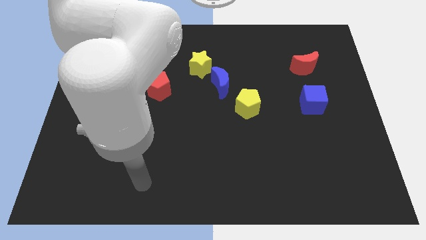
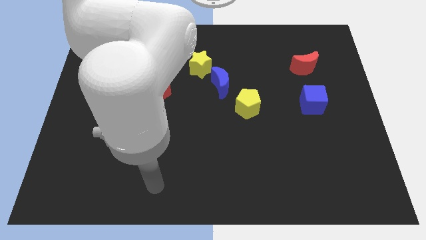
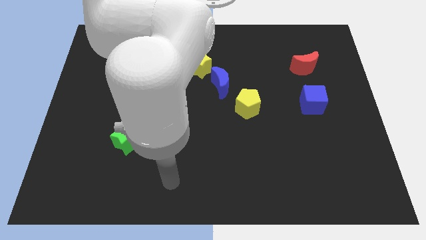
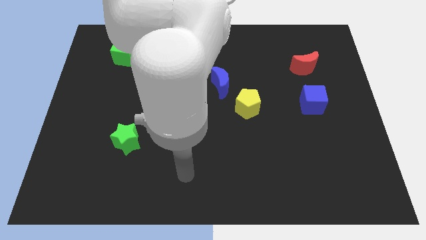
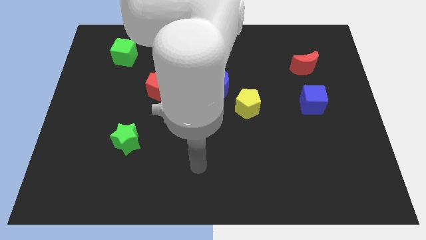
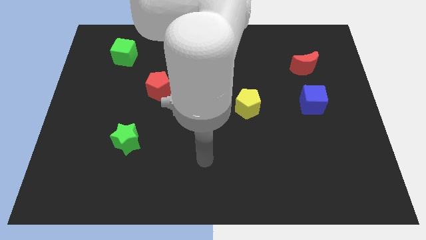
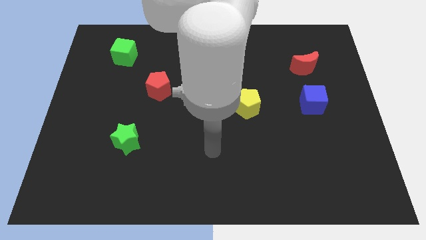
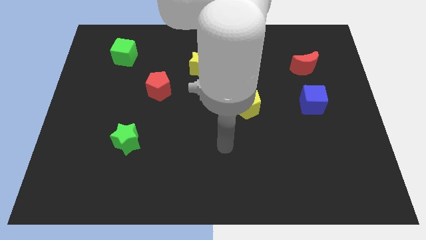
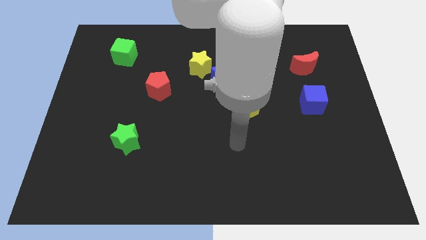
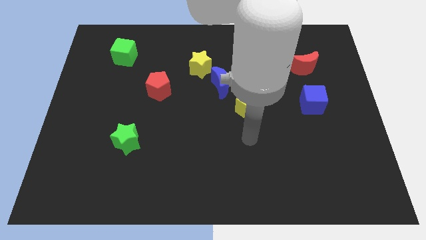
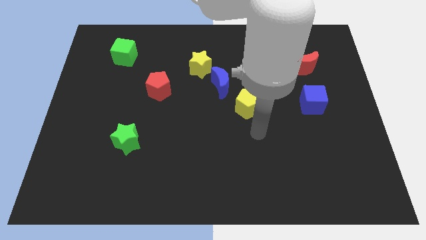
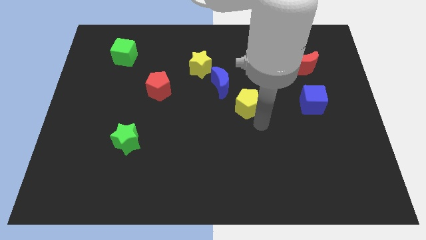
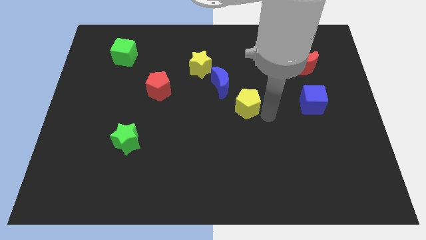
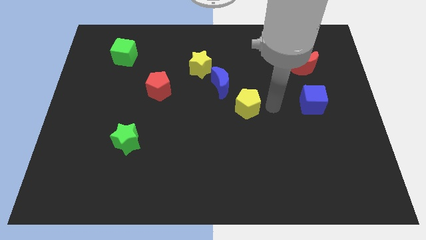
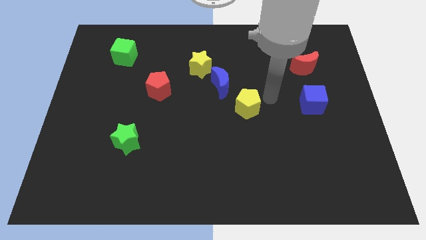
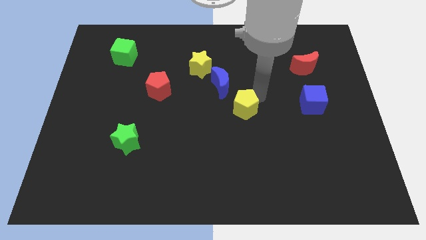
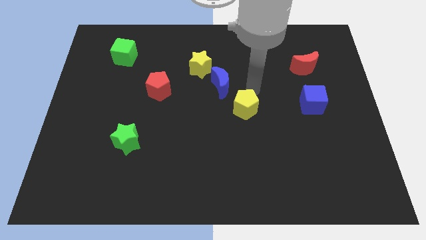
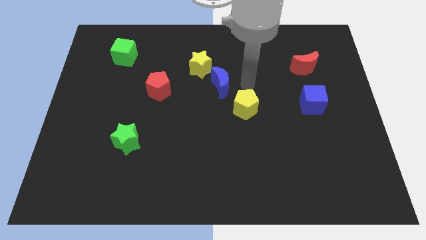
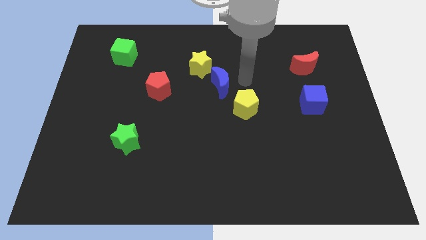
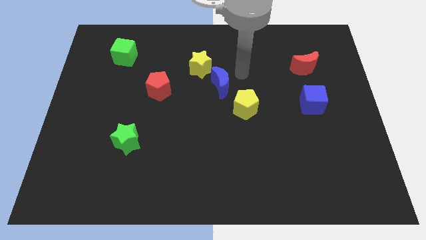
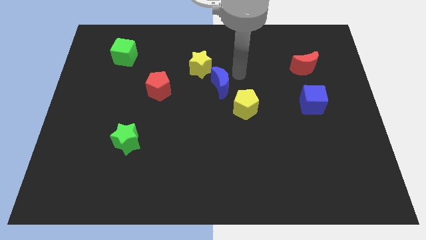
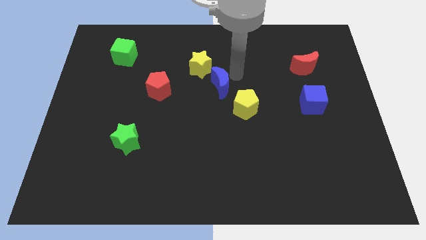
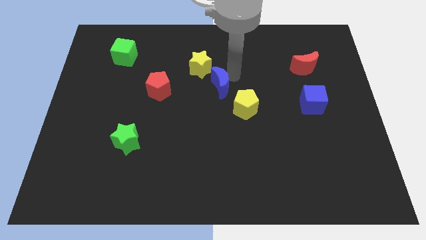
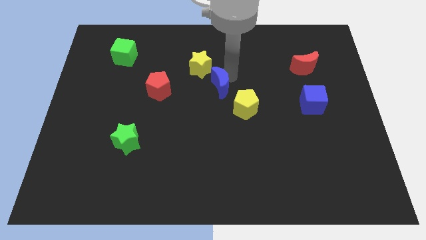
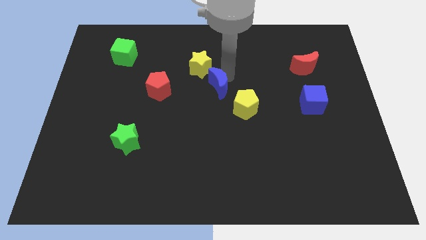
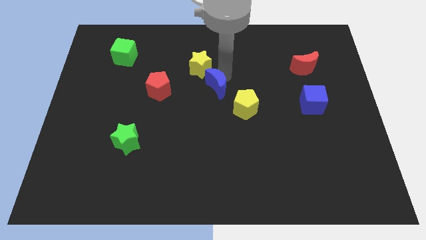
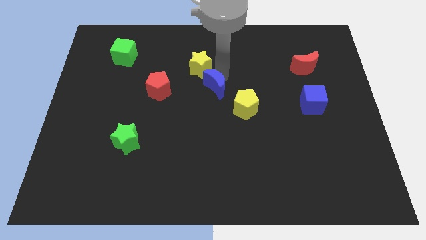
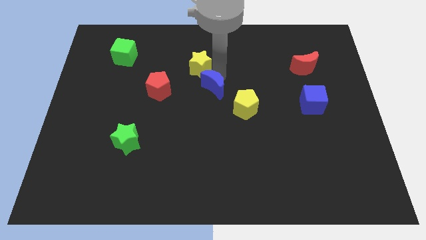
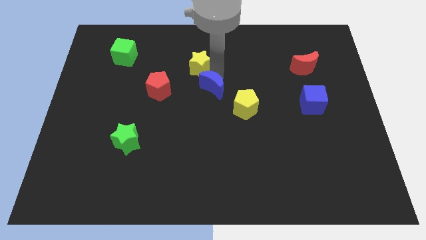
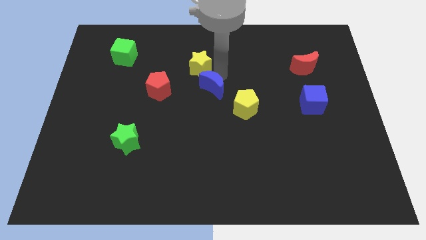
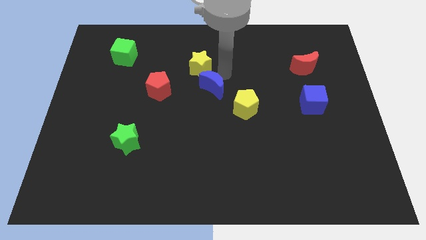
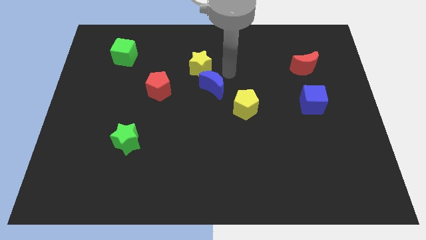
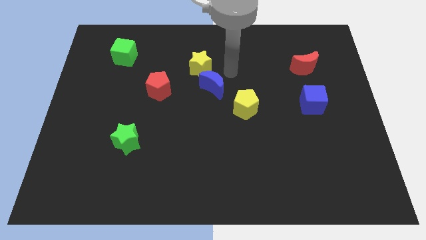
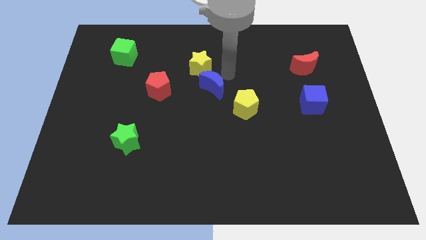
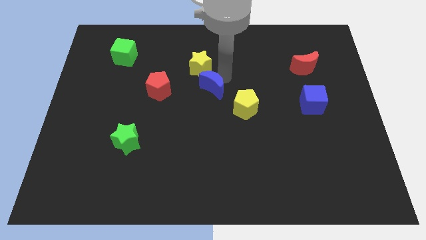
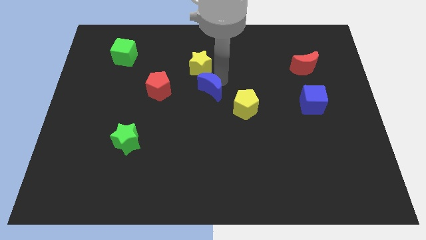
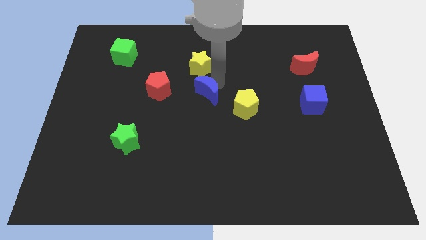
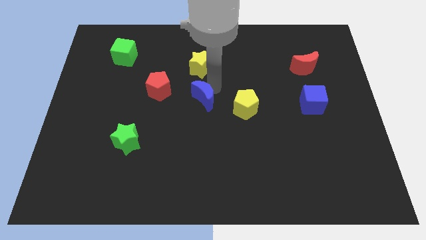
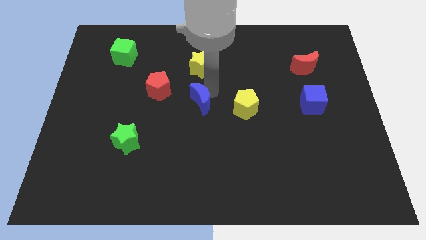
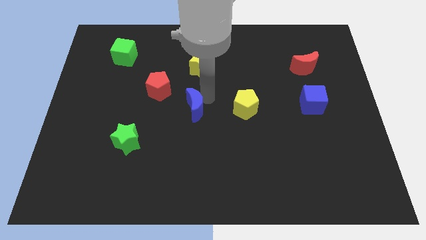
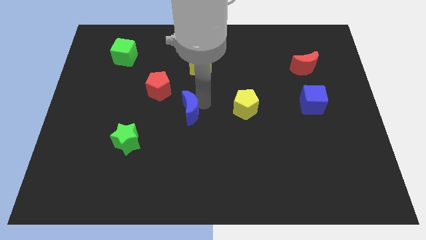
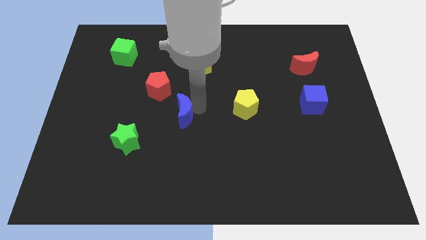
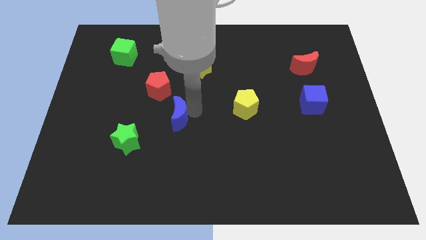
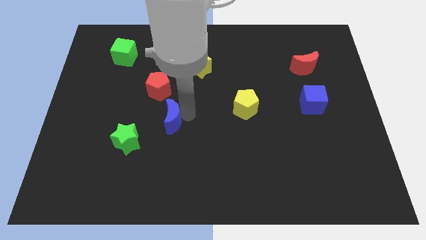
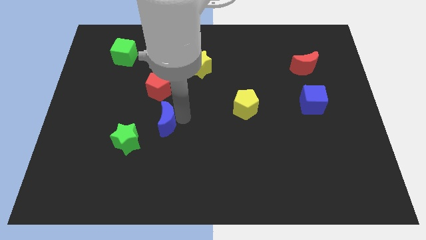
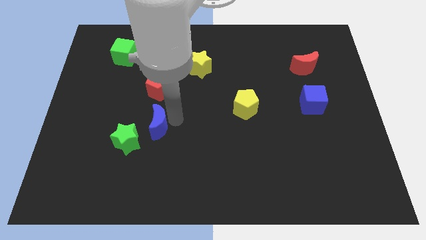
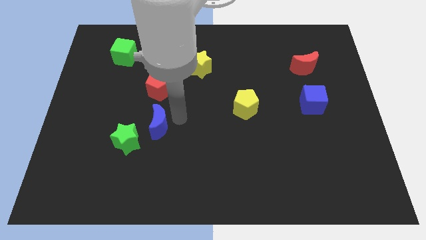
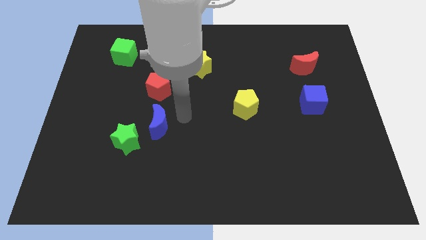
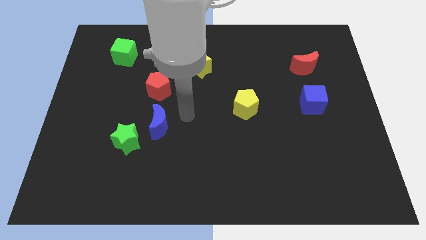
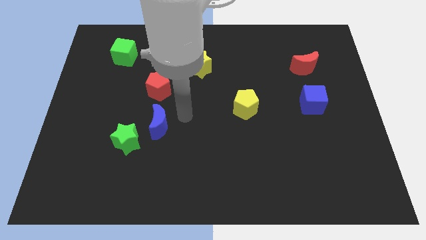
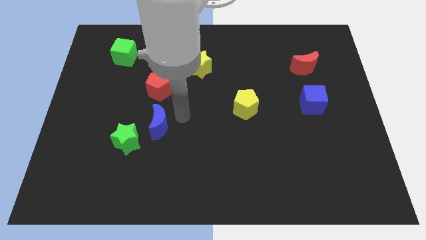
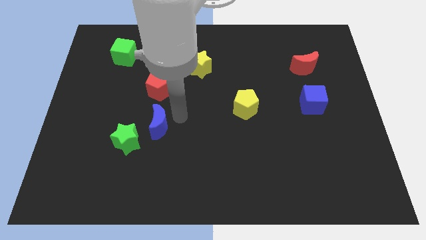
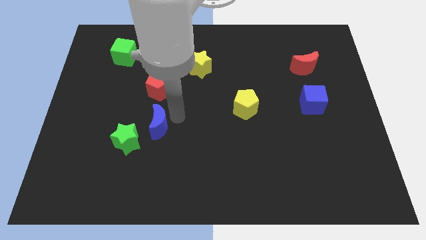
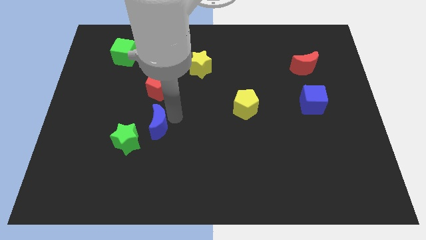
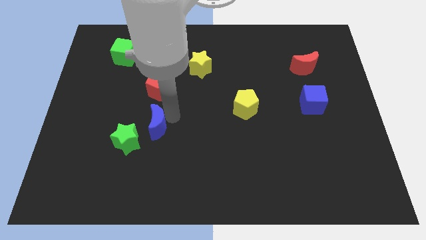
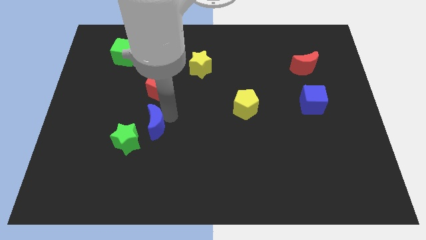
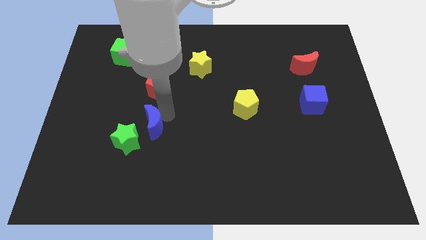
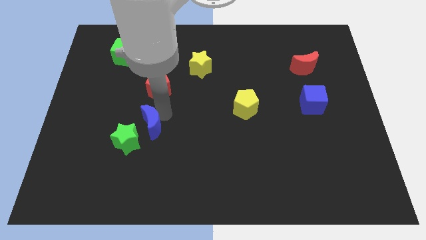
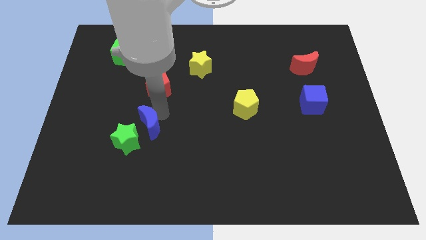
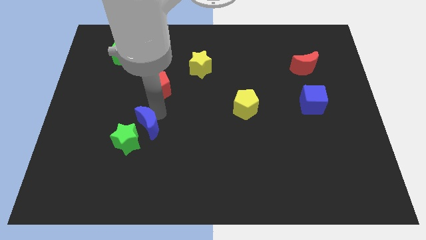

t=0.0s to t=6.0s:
slide the blue moon to the green star

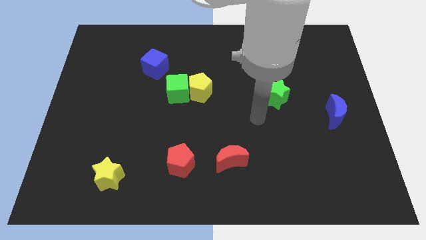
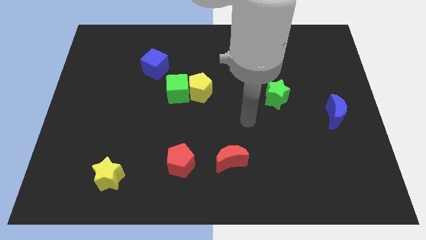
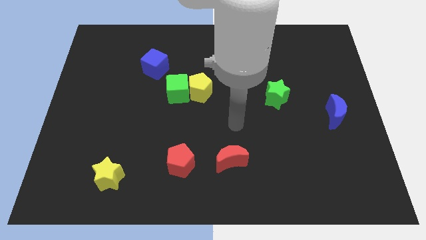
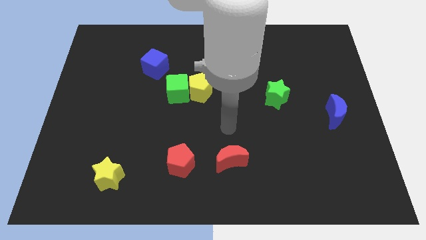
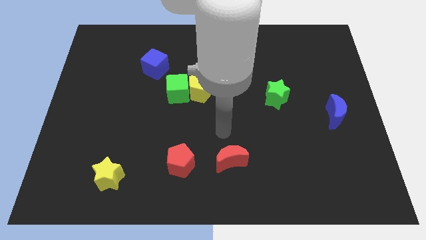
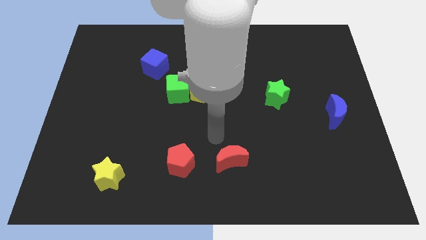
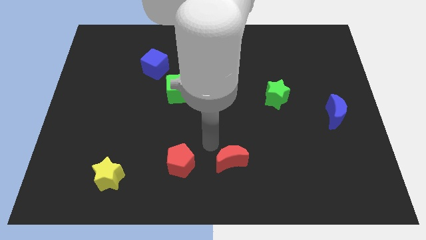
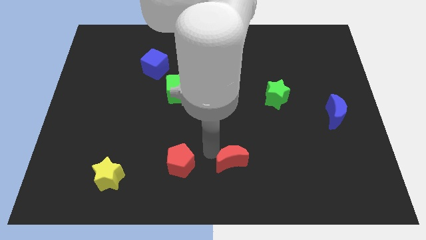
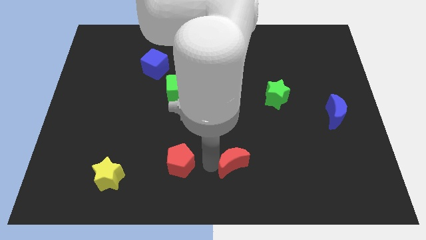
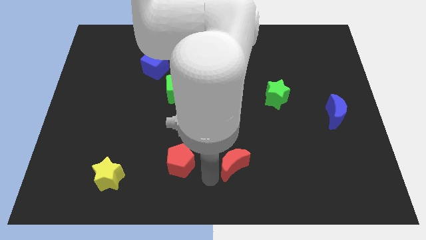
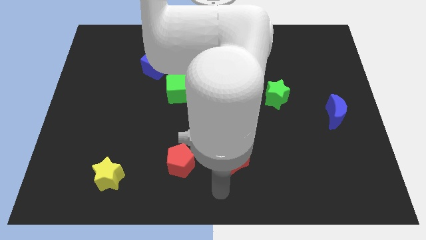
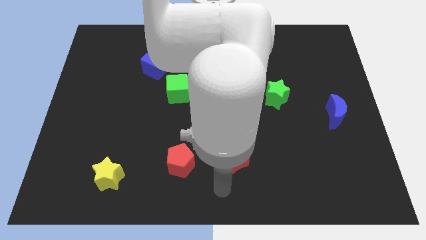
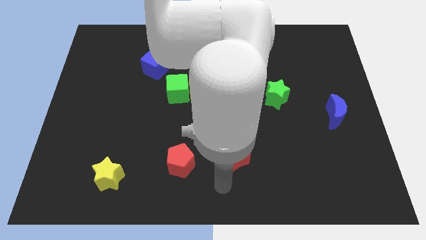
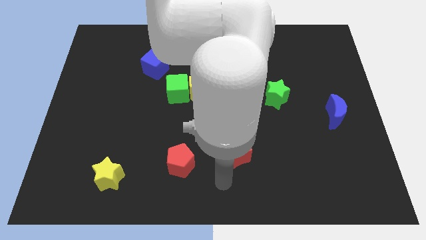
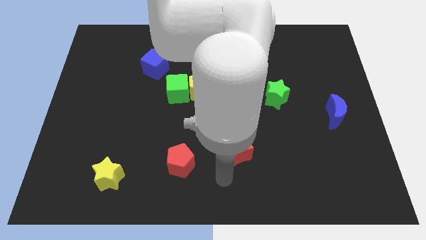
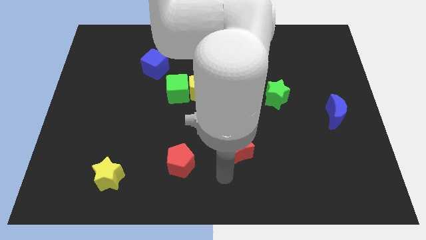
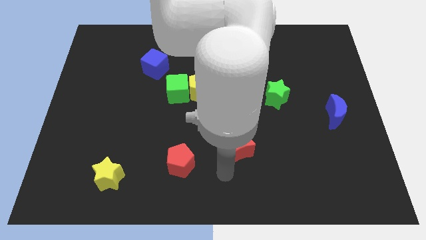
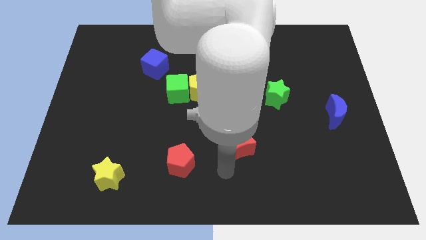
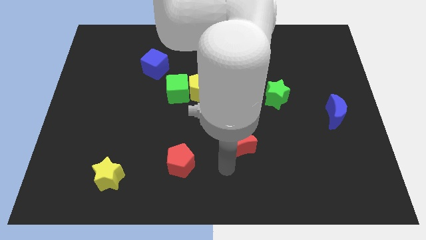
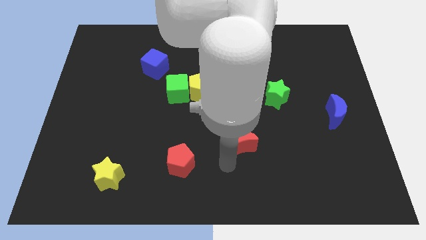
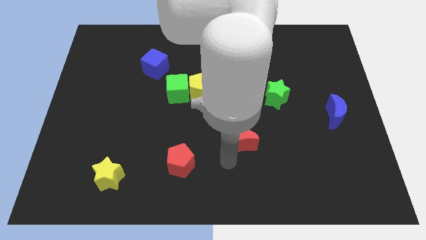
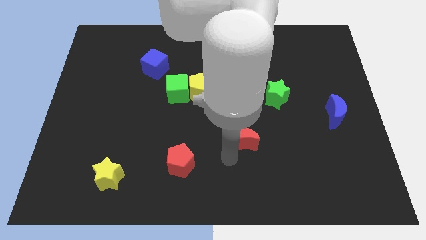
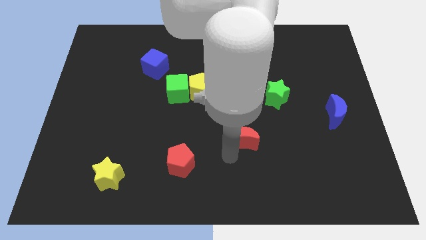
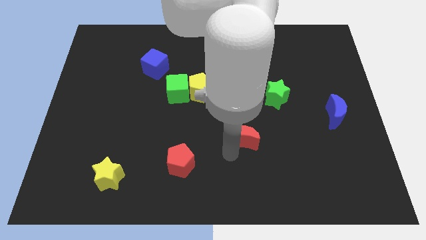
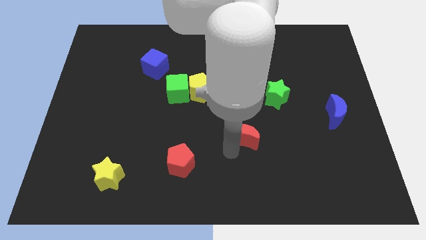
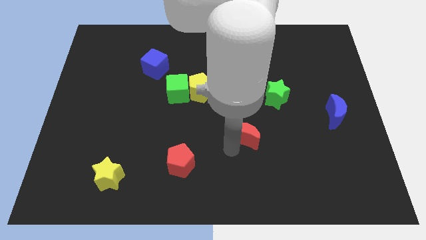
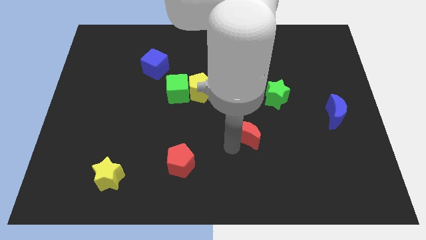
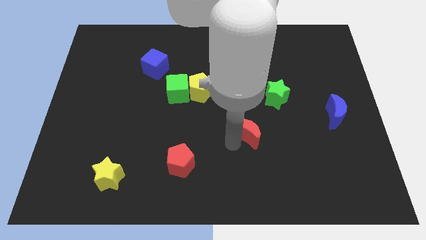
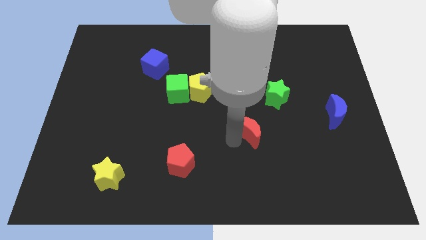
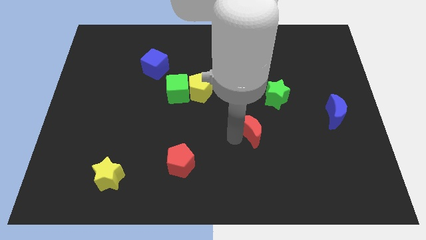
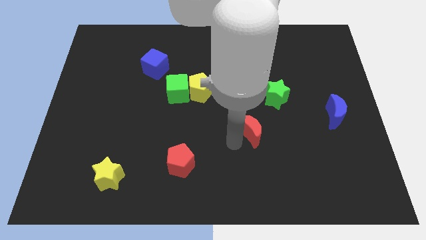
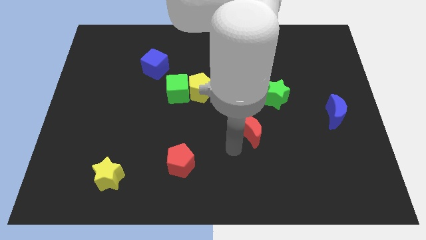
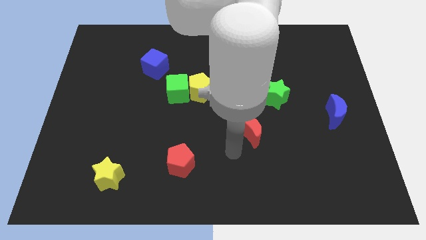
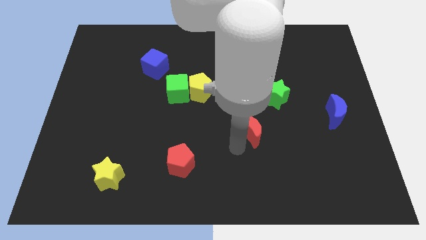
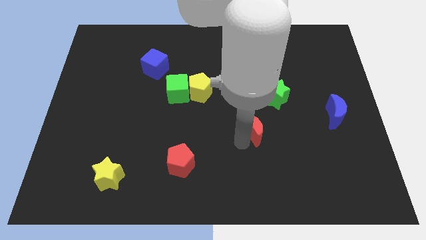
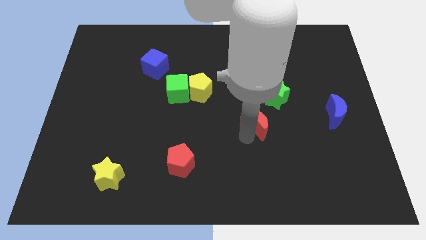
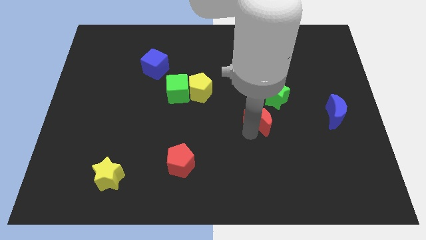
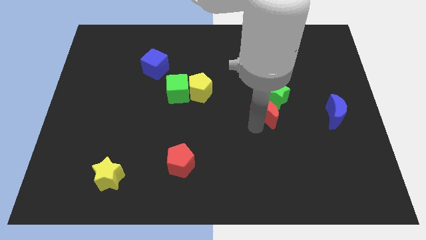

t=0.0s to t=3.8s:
put the red moon towards the green star
